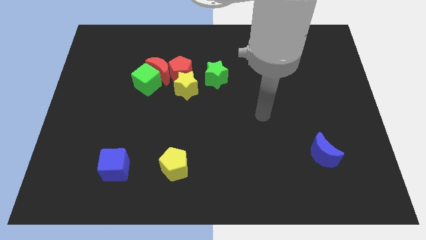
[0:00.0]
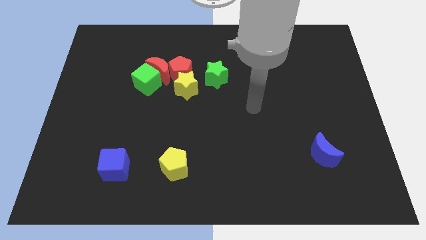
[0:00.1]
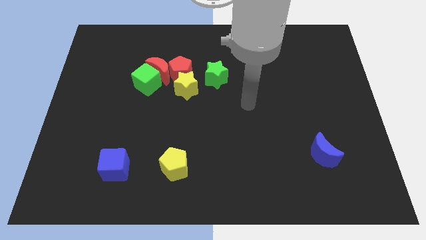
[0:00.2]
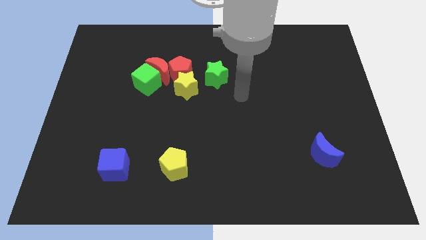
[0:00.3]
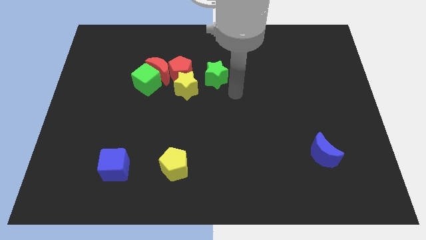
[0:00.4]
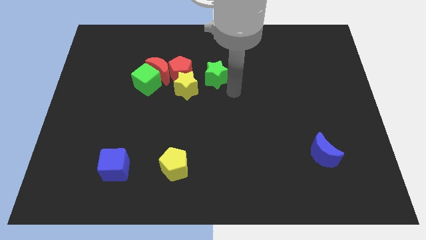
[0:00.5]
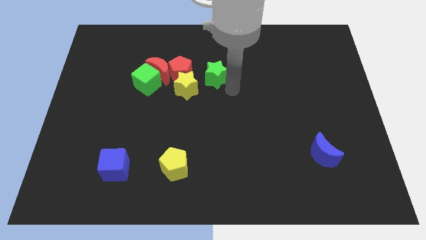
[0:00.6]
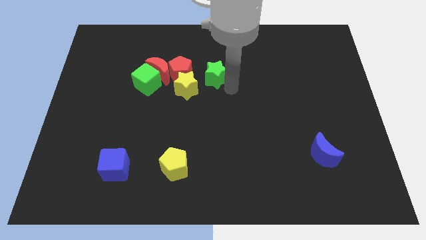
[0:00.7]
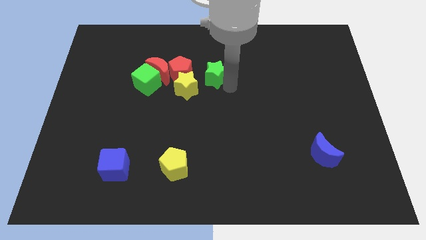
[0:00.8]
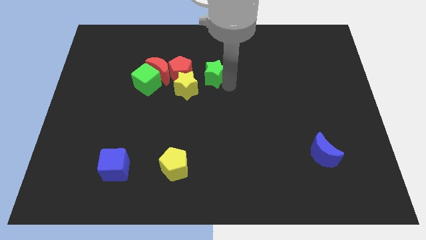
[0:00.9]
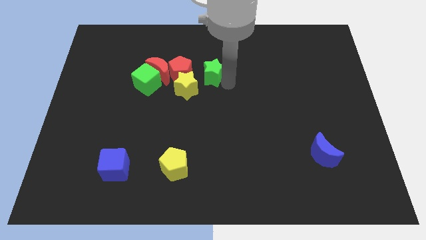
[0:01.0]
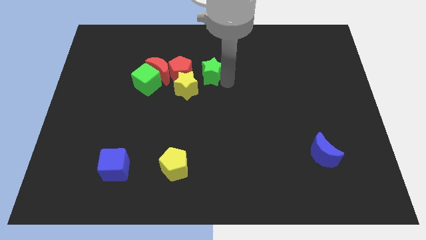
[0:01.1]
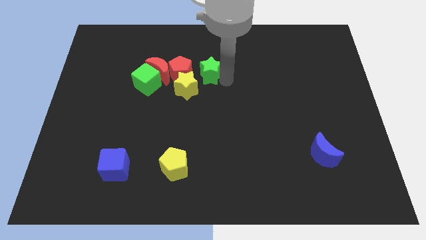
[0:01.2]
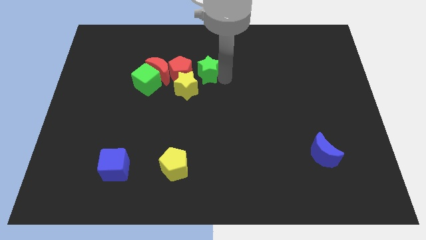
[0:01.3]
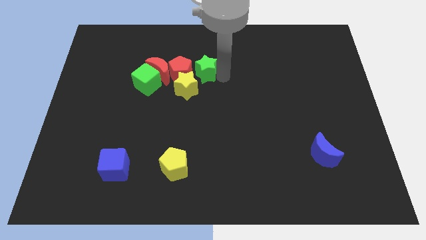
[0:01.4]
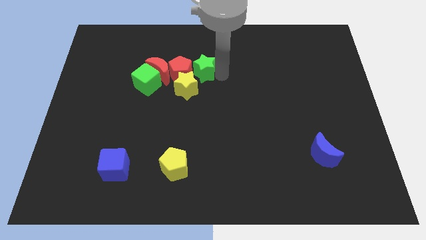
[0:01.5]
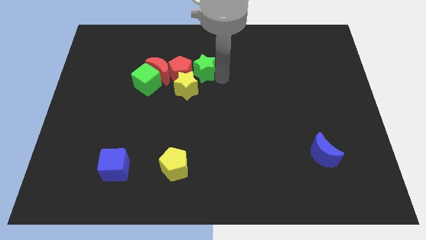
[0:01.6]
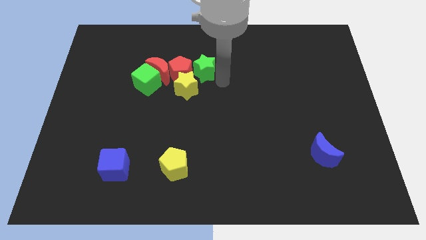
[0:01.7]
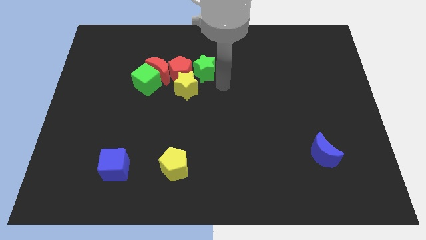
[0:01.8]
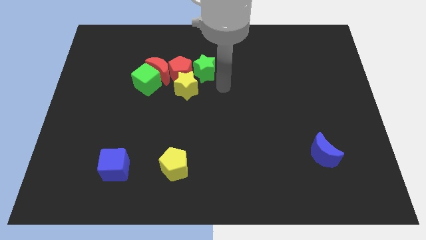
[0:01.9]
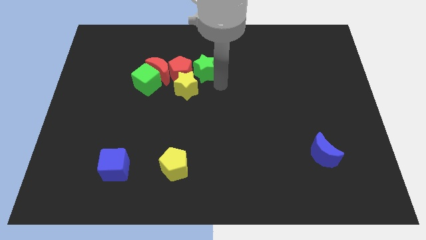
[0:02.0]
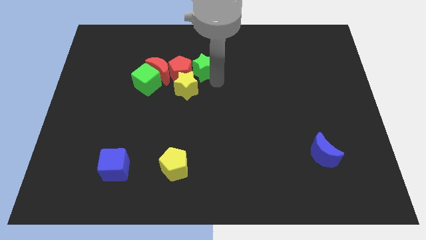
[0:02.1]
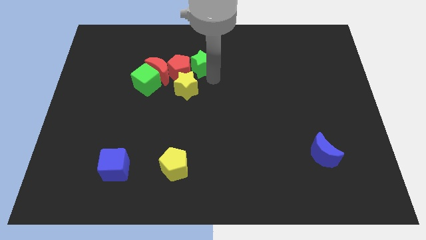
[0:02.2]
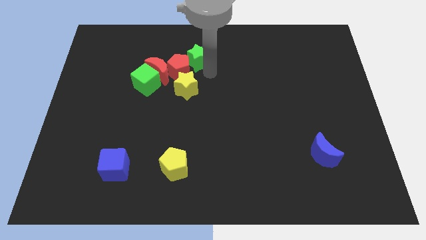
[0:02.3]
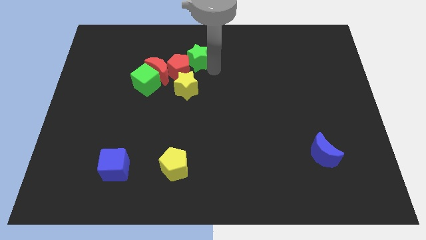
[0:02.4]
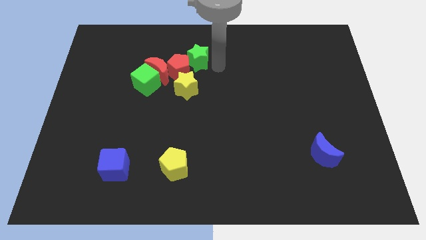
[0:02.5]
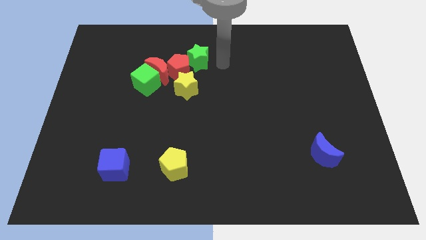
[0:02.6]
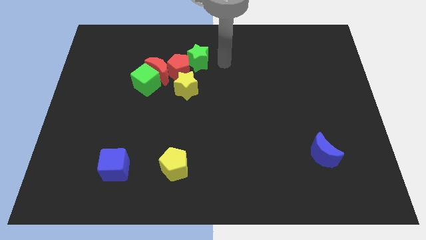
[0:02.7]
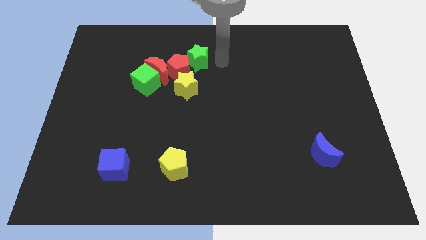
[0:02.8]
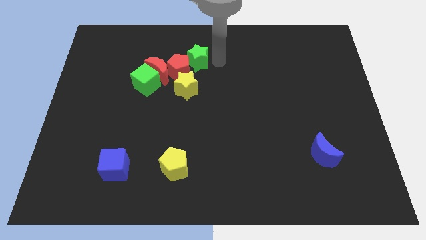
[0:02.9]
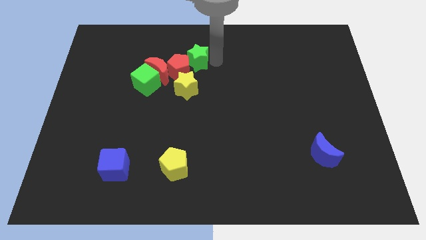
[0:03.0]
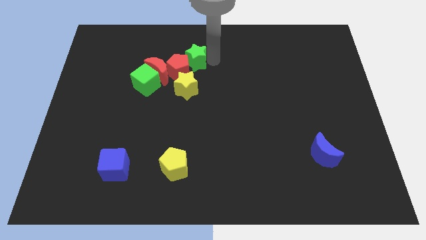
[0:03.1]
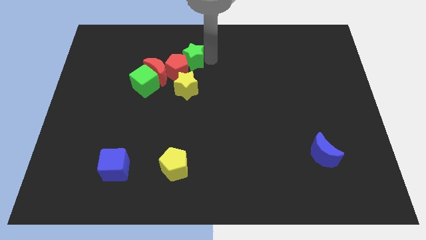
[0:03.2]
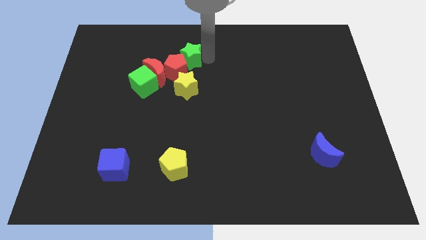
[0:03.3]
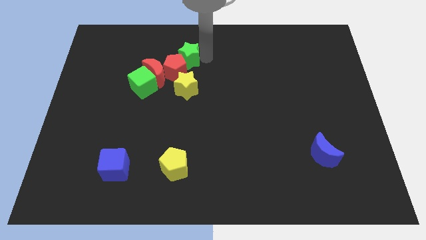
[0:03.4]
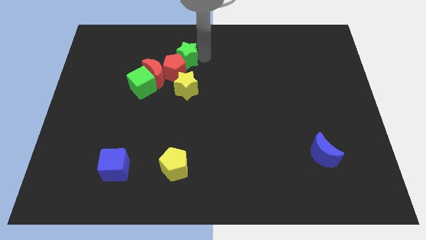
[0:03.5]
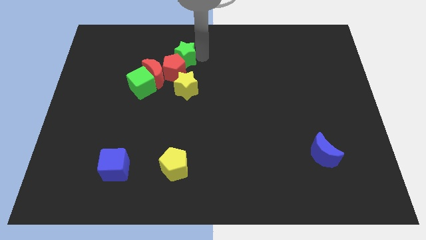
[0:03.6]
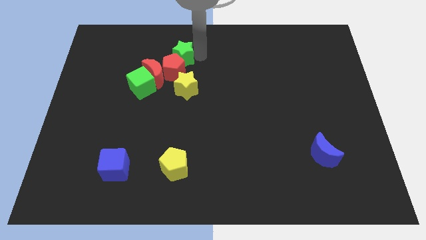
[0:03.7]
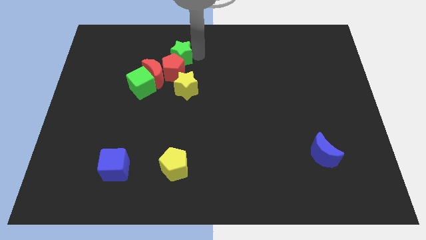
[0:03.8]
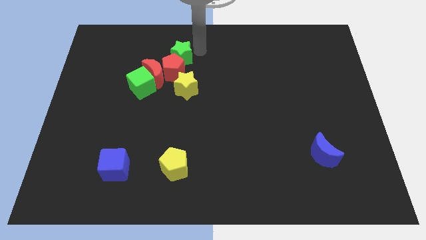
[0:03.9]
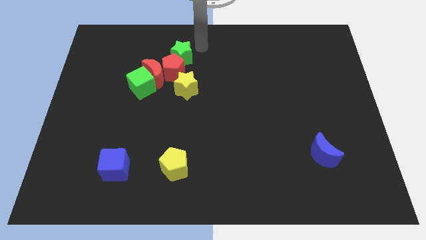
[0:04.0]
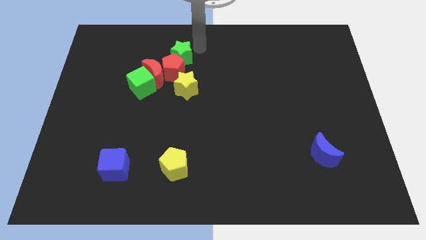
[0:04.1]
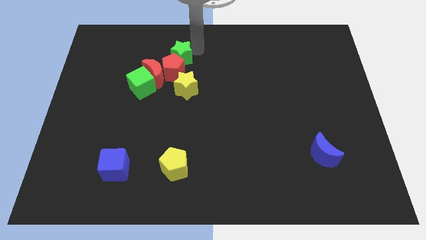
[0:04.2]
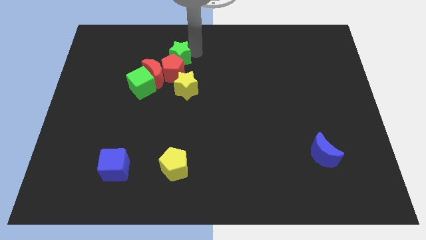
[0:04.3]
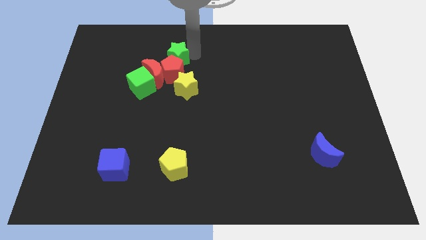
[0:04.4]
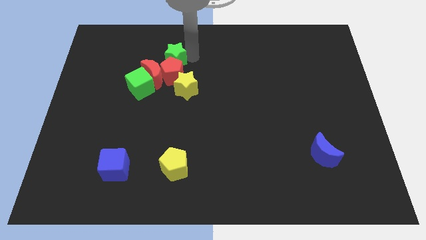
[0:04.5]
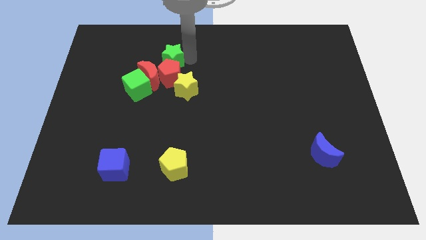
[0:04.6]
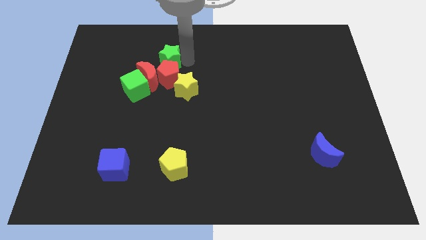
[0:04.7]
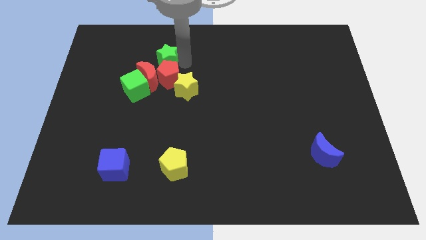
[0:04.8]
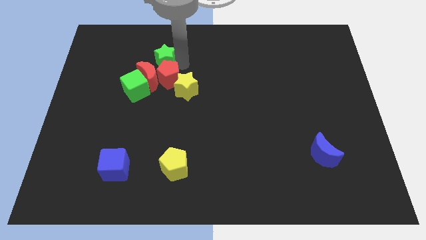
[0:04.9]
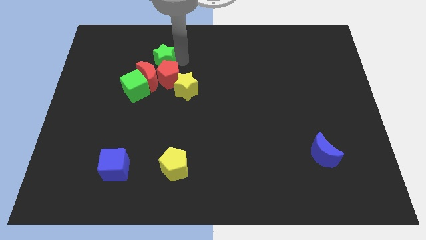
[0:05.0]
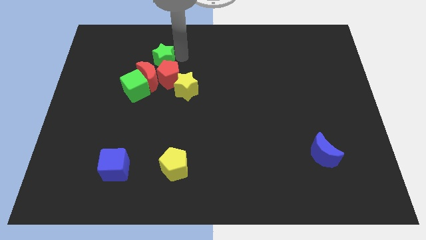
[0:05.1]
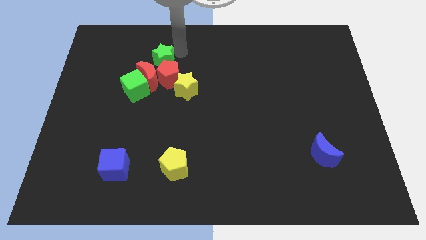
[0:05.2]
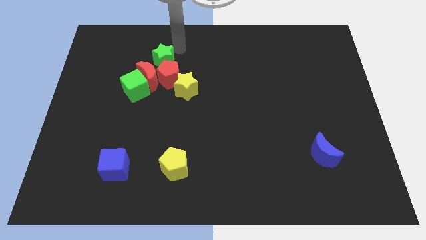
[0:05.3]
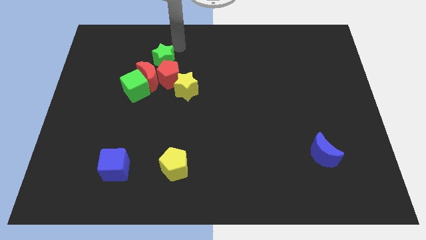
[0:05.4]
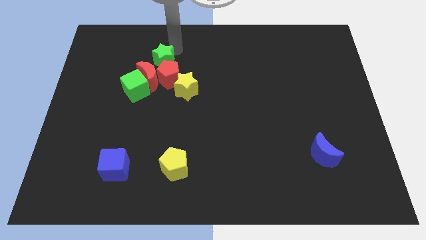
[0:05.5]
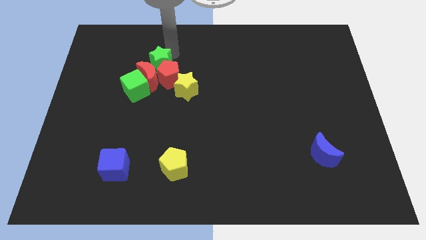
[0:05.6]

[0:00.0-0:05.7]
put the green star close to the red moon

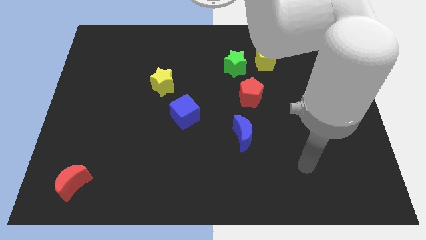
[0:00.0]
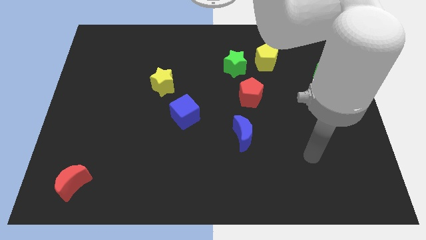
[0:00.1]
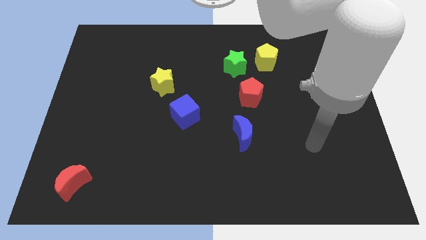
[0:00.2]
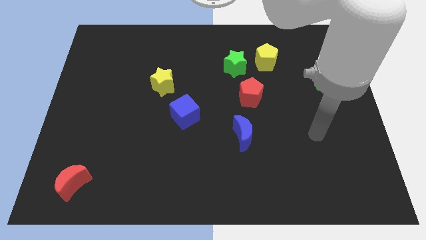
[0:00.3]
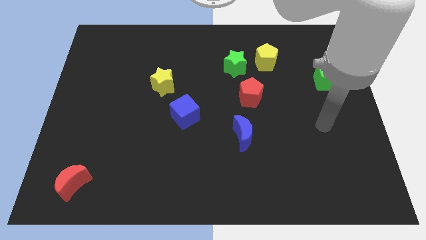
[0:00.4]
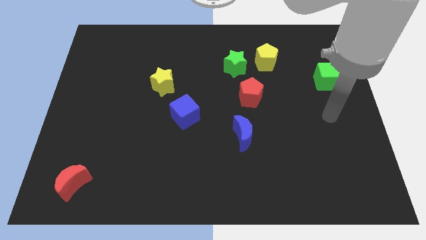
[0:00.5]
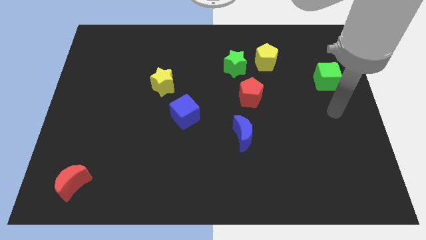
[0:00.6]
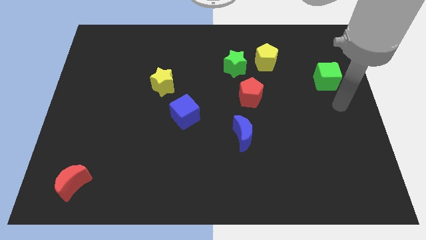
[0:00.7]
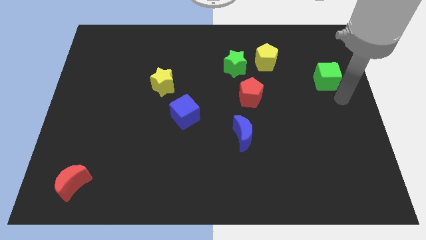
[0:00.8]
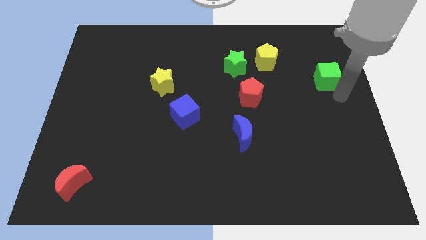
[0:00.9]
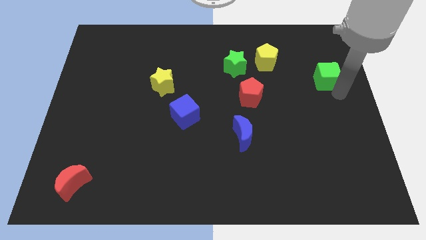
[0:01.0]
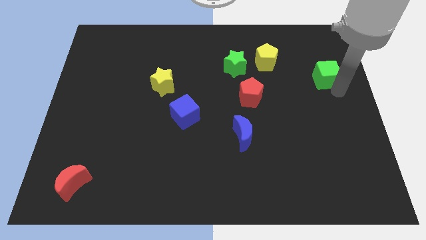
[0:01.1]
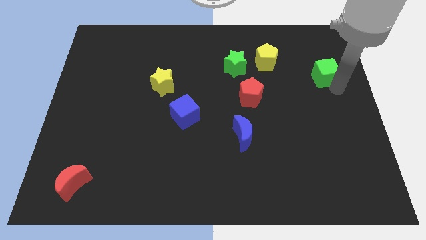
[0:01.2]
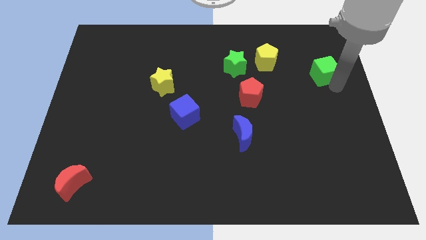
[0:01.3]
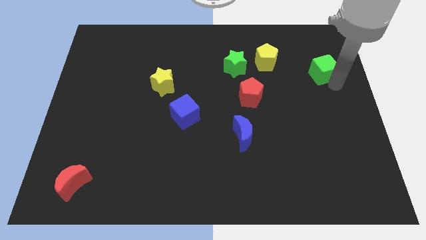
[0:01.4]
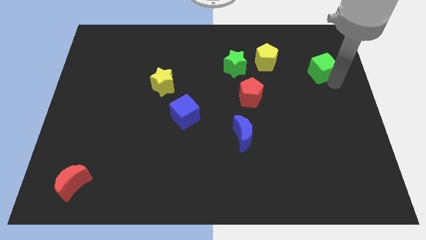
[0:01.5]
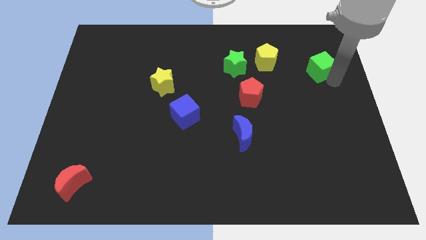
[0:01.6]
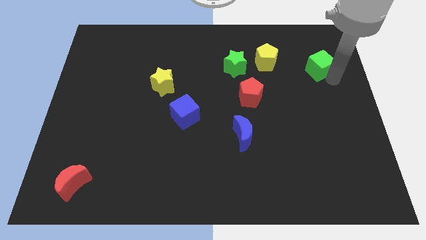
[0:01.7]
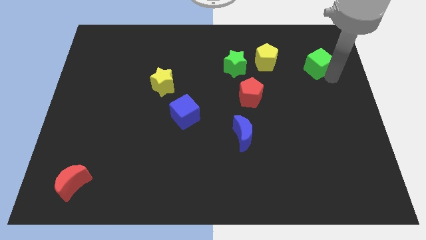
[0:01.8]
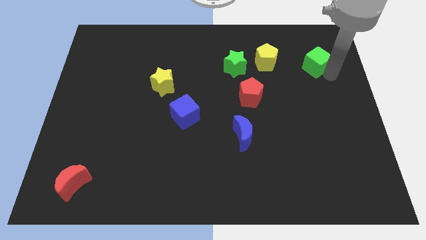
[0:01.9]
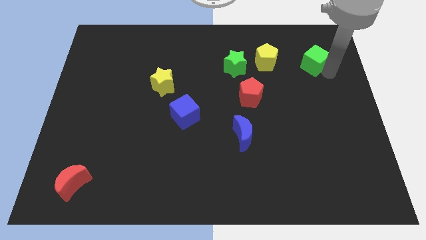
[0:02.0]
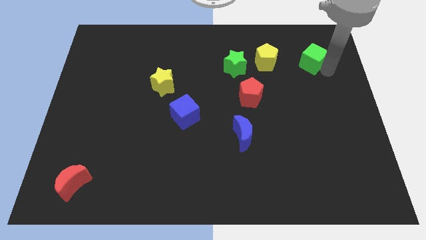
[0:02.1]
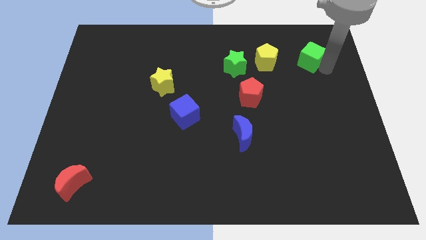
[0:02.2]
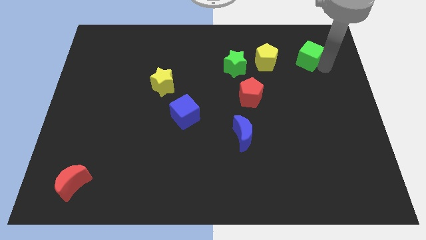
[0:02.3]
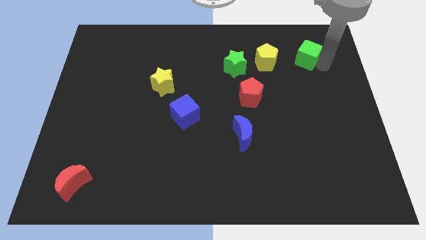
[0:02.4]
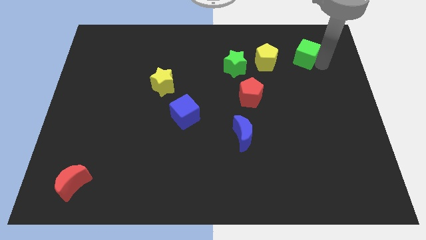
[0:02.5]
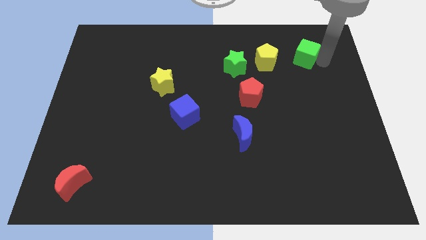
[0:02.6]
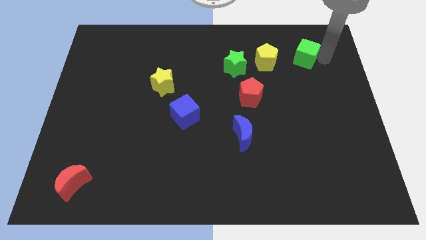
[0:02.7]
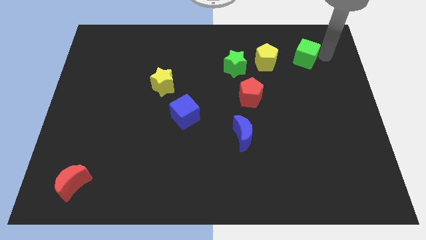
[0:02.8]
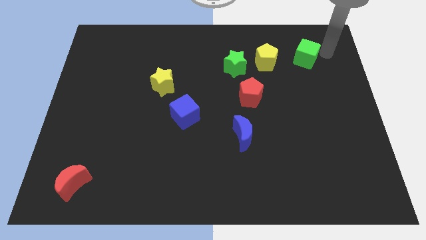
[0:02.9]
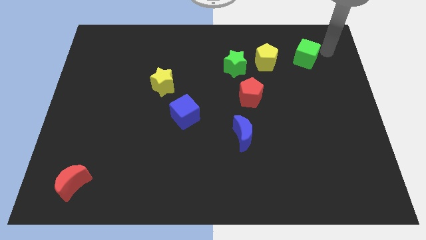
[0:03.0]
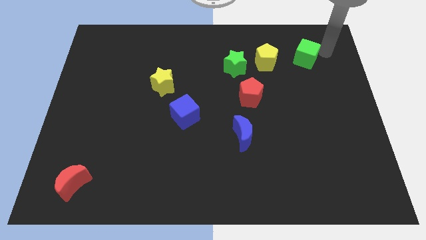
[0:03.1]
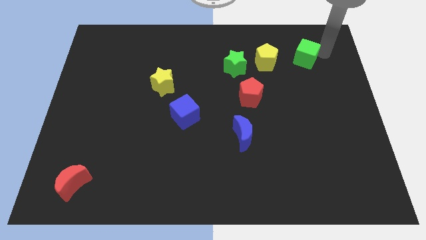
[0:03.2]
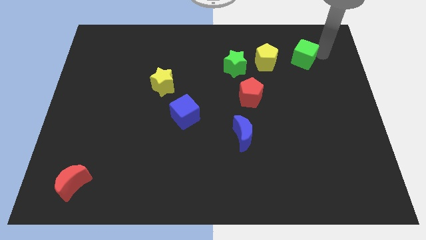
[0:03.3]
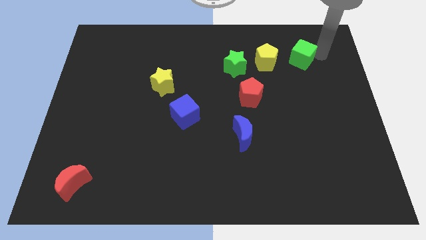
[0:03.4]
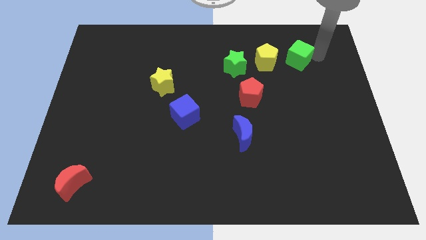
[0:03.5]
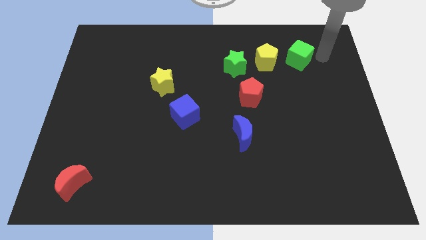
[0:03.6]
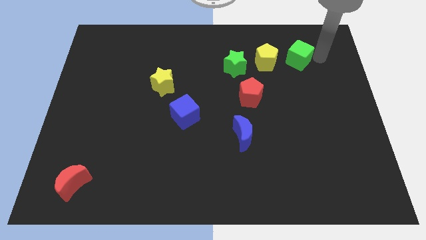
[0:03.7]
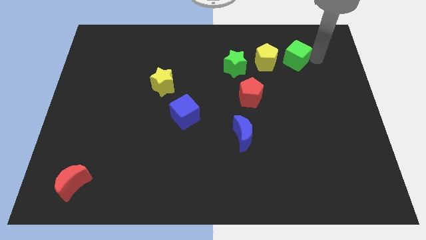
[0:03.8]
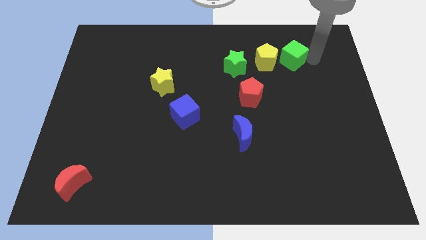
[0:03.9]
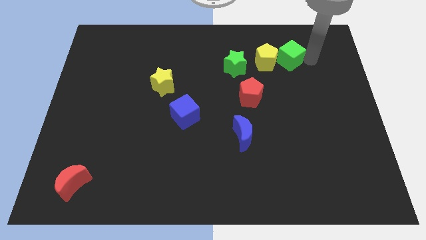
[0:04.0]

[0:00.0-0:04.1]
move the green cube next to the yellow pentagon
